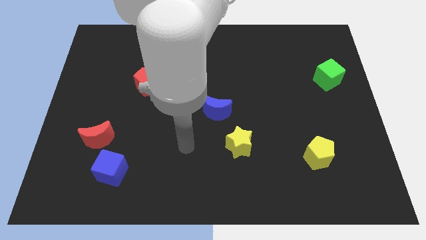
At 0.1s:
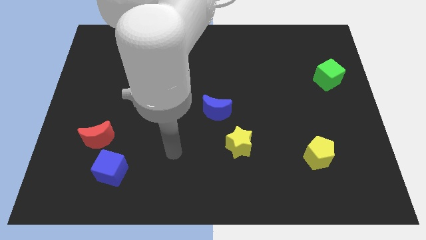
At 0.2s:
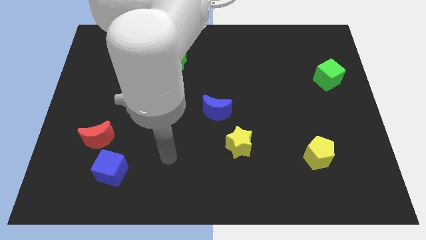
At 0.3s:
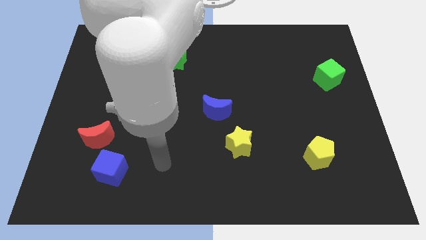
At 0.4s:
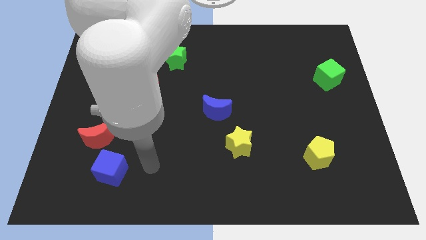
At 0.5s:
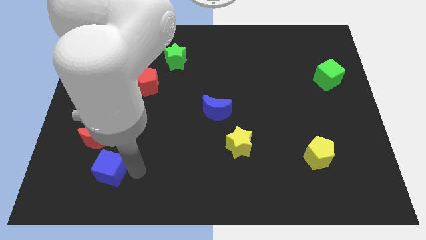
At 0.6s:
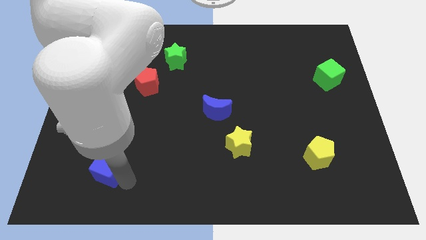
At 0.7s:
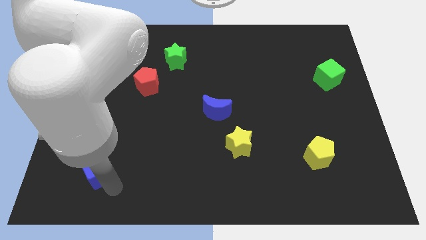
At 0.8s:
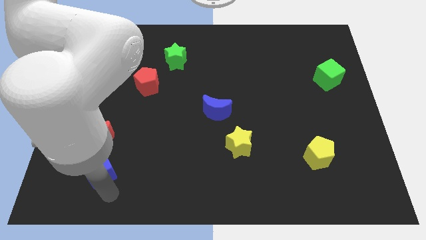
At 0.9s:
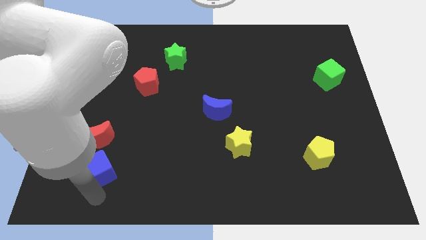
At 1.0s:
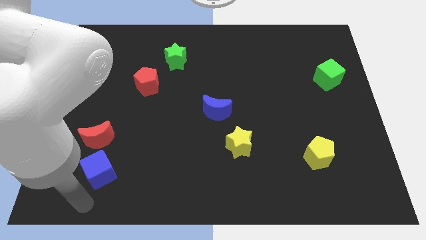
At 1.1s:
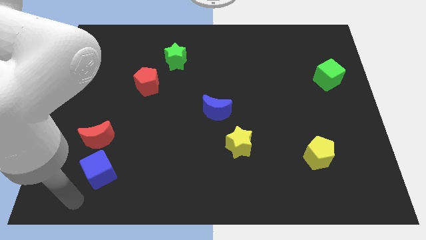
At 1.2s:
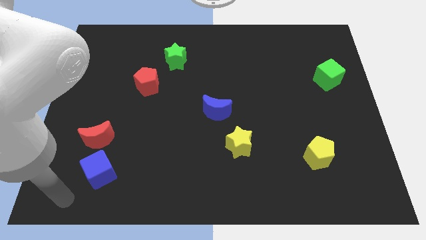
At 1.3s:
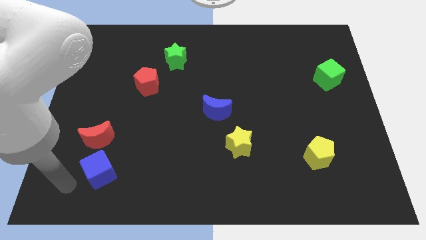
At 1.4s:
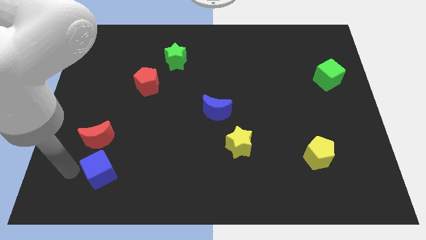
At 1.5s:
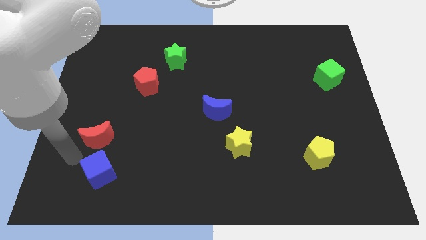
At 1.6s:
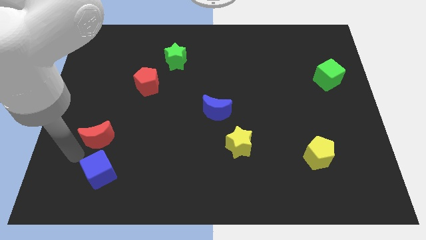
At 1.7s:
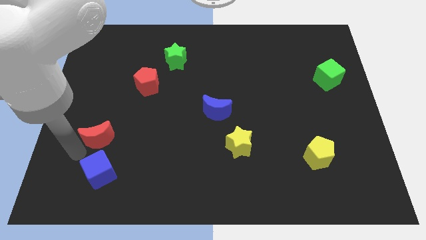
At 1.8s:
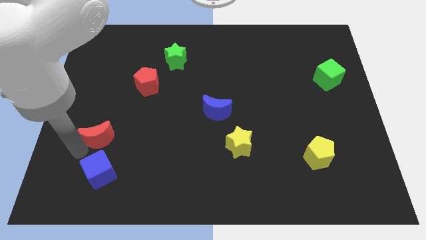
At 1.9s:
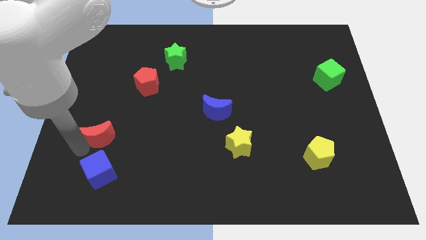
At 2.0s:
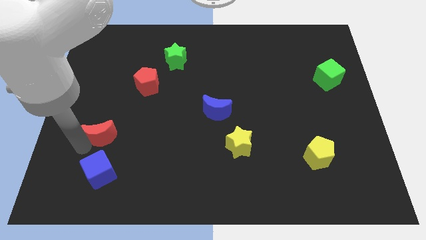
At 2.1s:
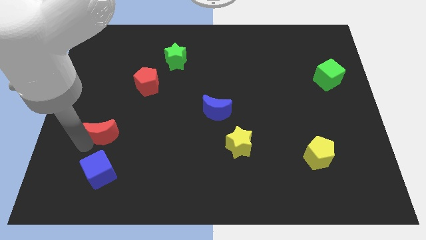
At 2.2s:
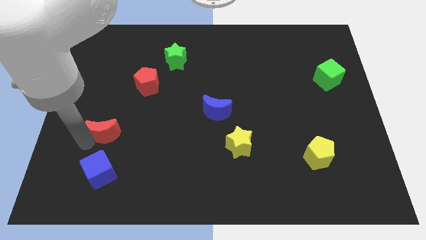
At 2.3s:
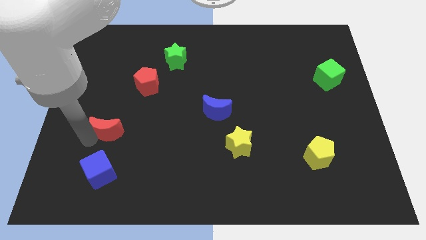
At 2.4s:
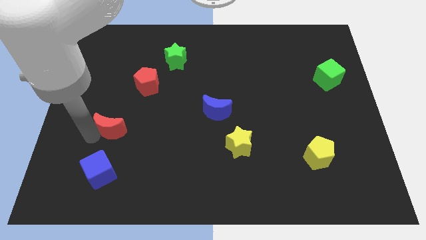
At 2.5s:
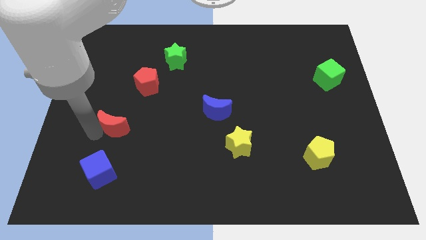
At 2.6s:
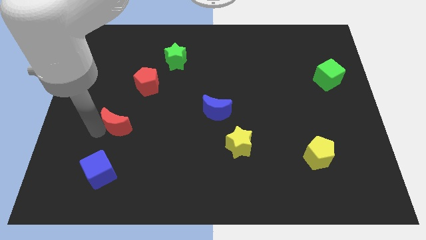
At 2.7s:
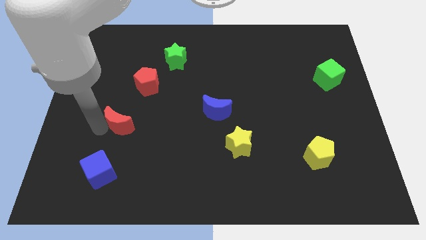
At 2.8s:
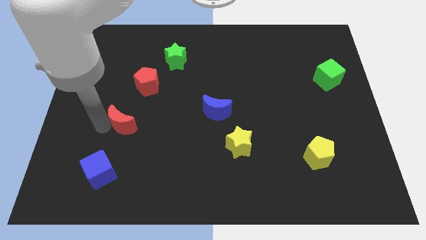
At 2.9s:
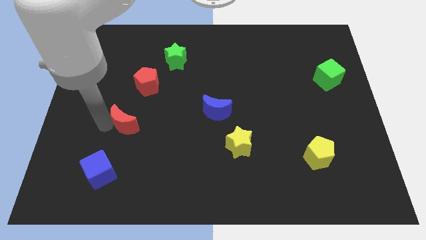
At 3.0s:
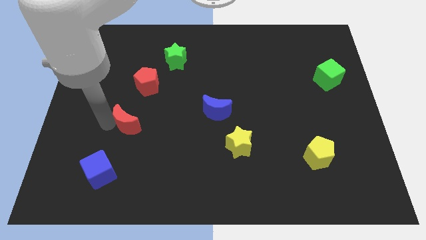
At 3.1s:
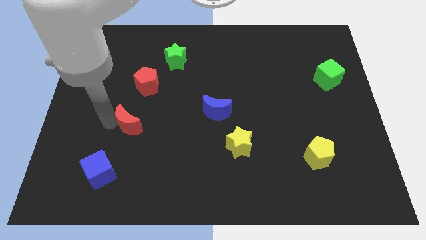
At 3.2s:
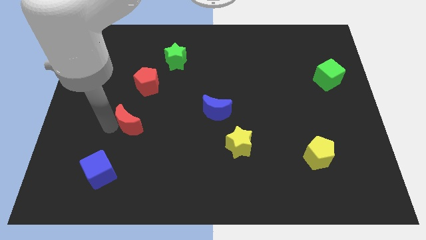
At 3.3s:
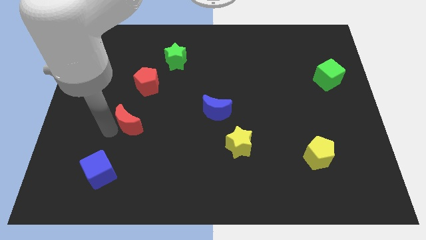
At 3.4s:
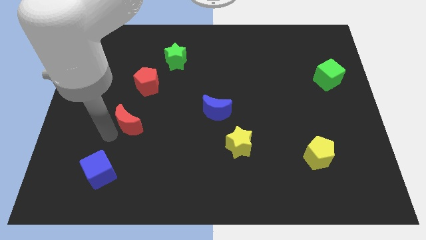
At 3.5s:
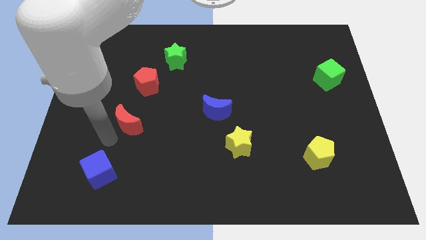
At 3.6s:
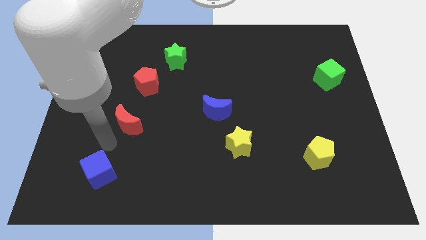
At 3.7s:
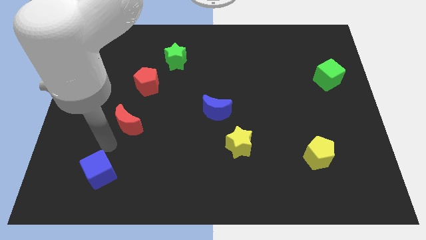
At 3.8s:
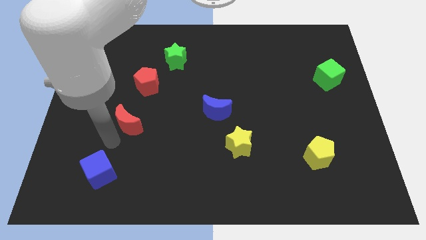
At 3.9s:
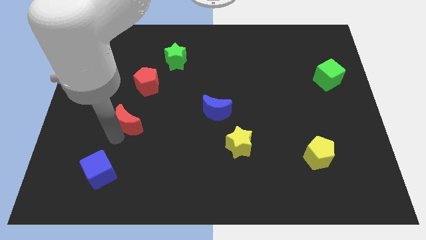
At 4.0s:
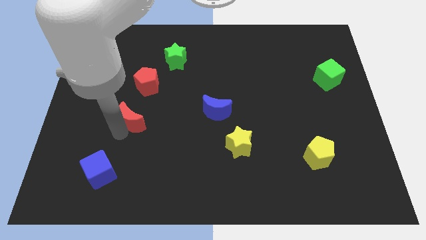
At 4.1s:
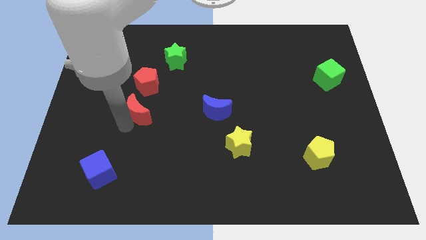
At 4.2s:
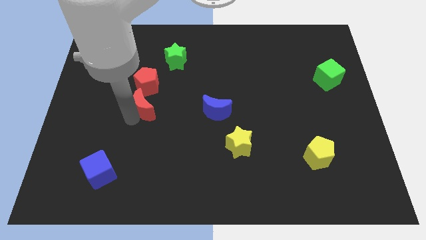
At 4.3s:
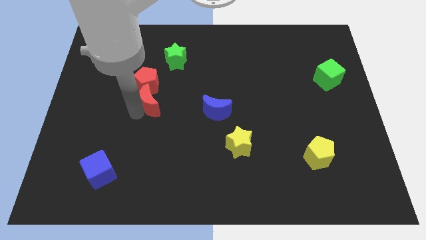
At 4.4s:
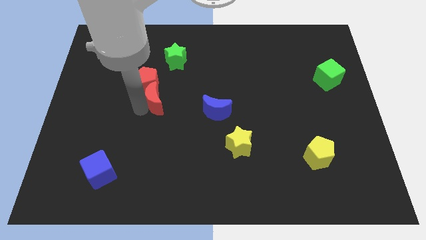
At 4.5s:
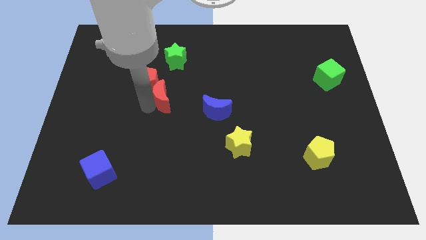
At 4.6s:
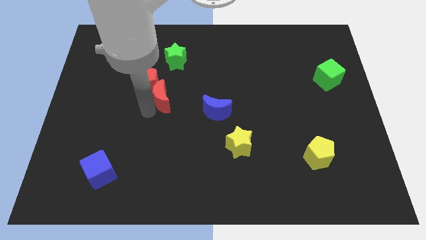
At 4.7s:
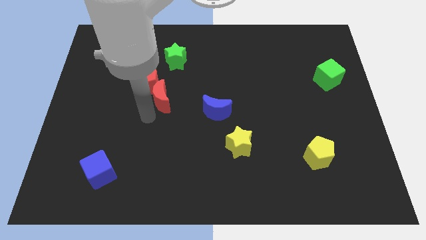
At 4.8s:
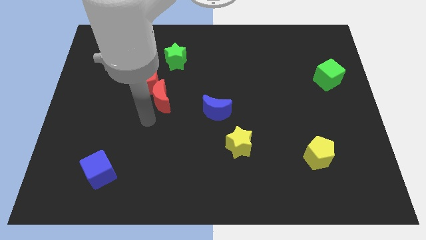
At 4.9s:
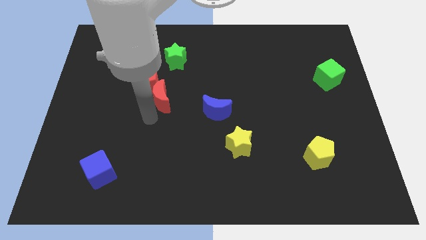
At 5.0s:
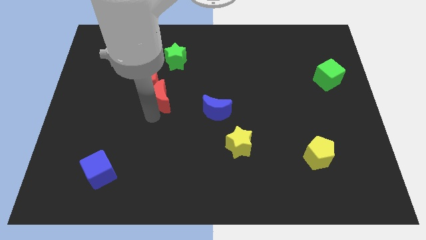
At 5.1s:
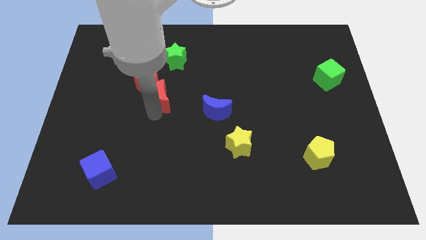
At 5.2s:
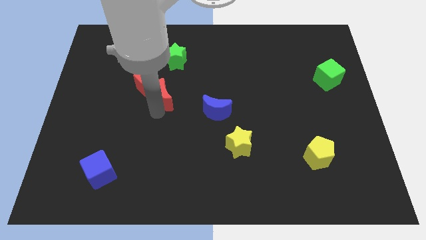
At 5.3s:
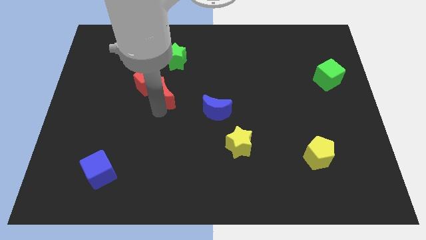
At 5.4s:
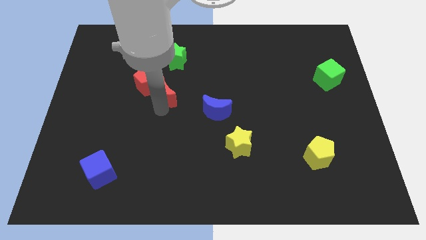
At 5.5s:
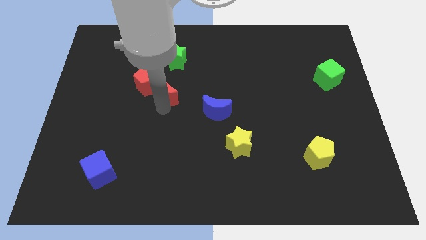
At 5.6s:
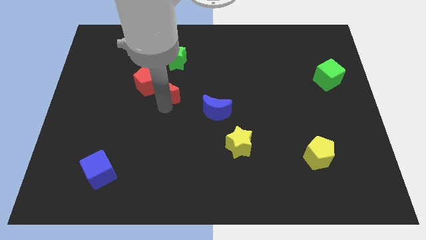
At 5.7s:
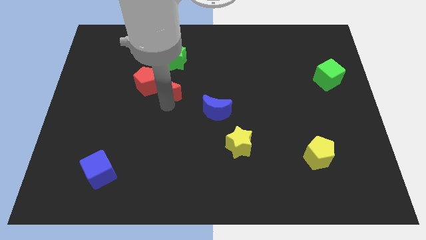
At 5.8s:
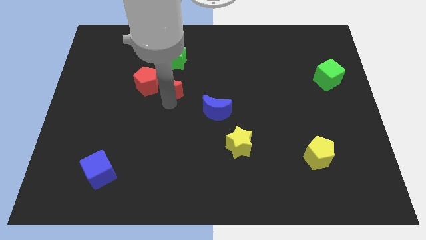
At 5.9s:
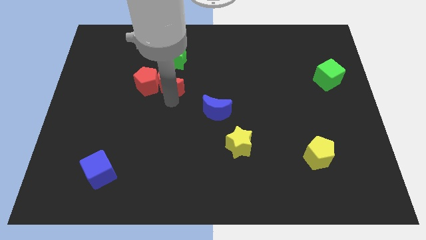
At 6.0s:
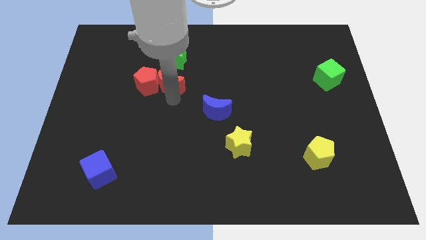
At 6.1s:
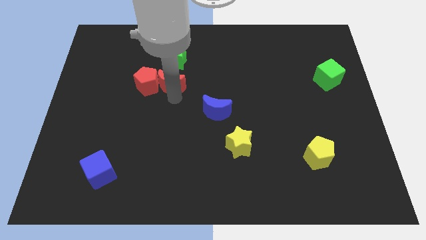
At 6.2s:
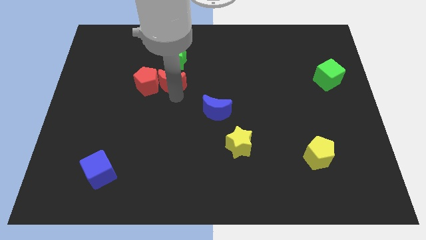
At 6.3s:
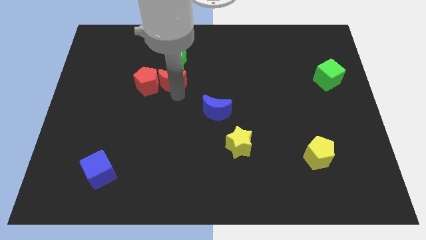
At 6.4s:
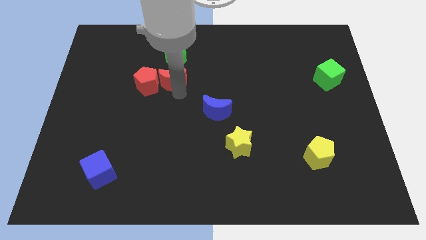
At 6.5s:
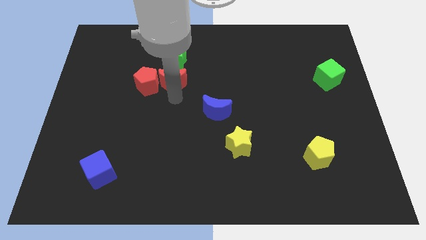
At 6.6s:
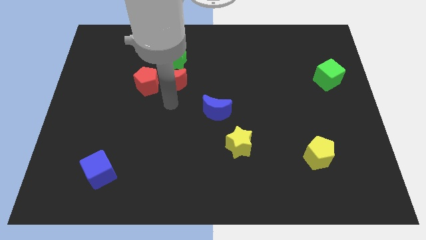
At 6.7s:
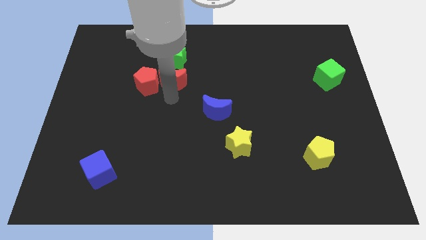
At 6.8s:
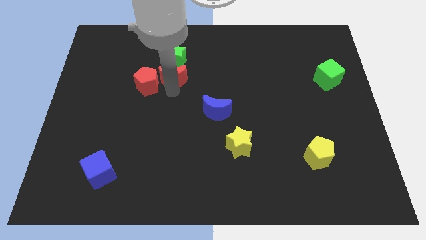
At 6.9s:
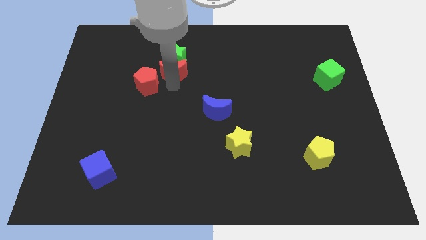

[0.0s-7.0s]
put the red moon to the green star
